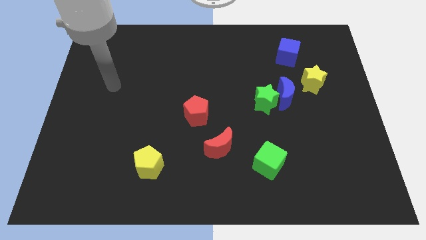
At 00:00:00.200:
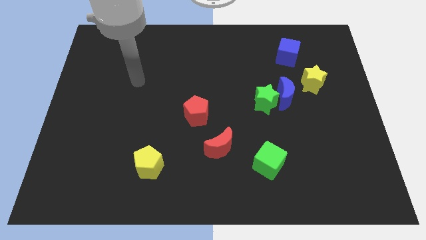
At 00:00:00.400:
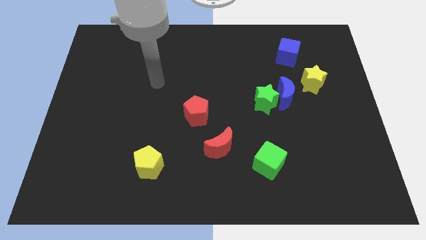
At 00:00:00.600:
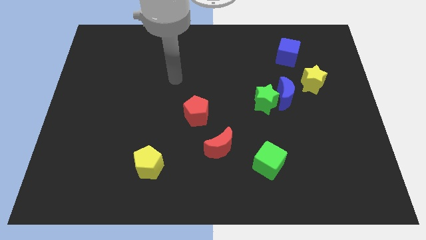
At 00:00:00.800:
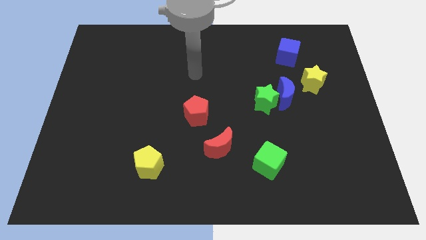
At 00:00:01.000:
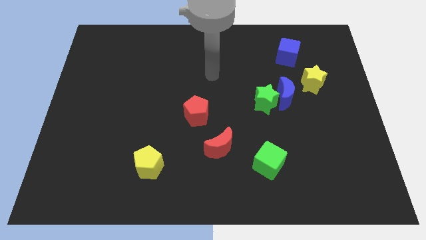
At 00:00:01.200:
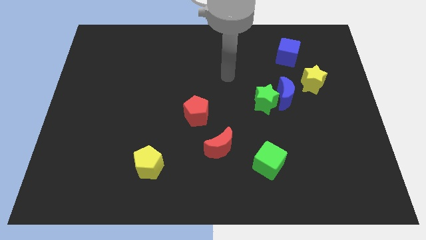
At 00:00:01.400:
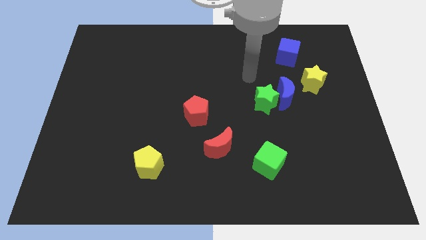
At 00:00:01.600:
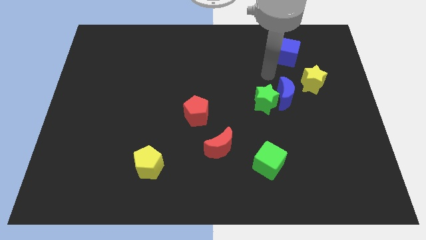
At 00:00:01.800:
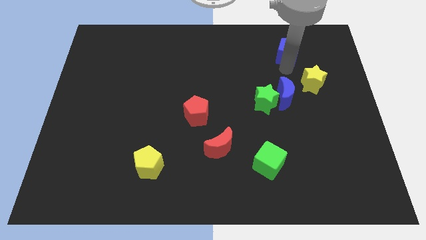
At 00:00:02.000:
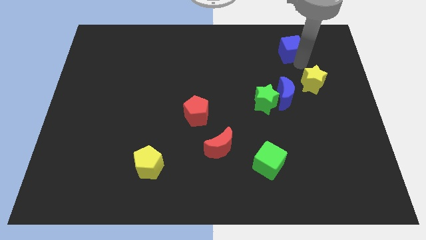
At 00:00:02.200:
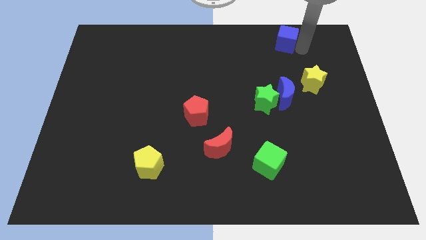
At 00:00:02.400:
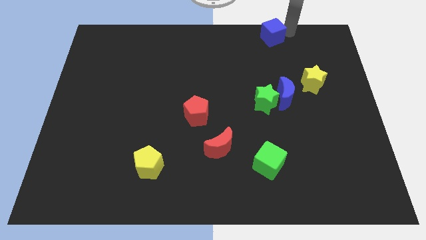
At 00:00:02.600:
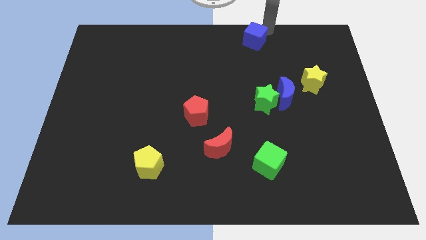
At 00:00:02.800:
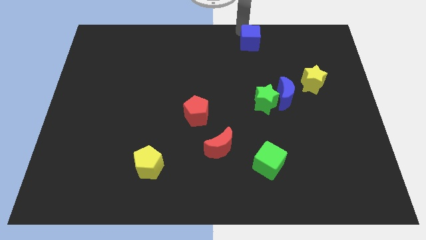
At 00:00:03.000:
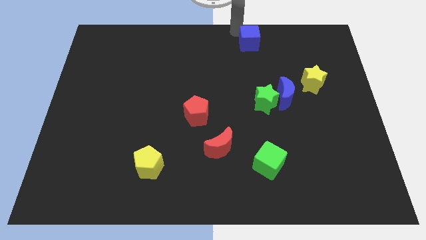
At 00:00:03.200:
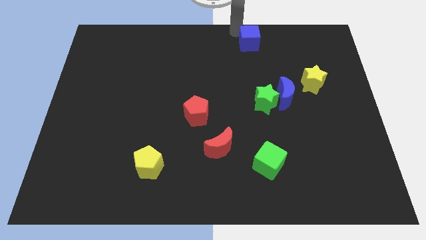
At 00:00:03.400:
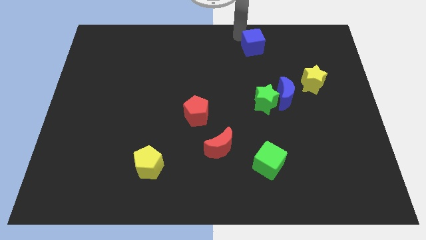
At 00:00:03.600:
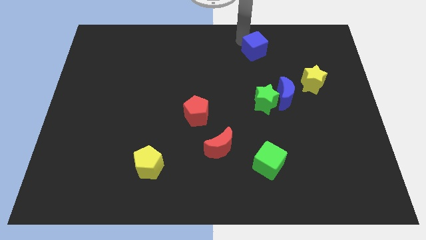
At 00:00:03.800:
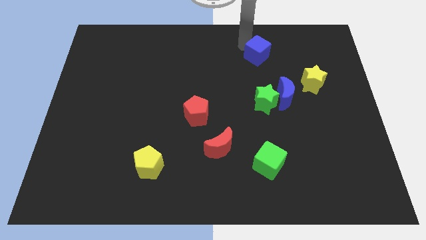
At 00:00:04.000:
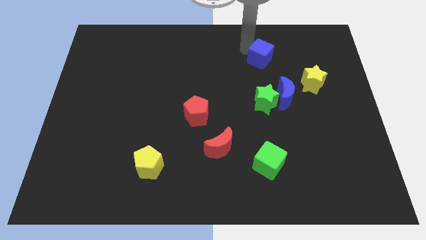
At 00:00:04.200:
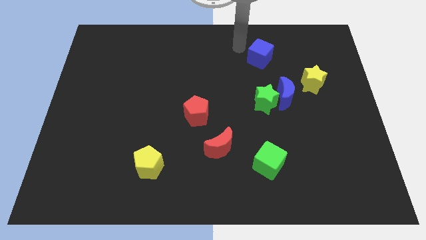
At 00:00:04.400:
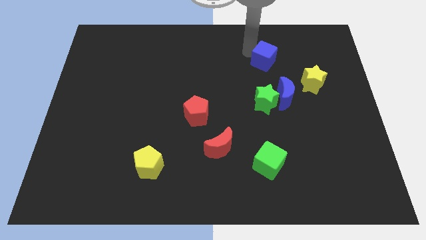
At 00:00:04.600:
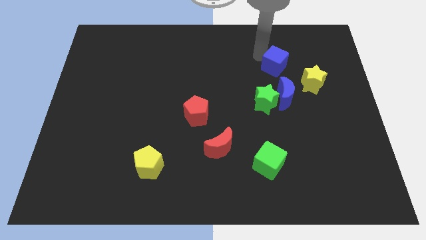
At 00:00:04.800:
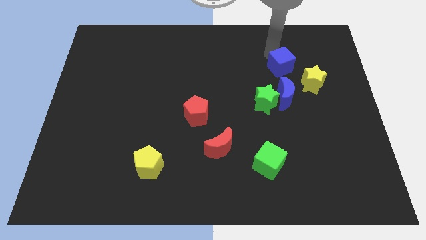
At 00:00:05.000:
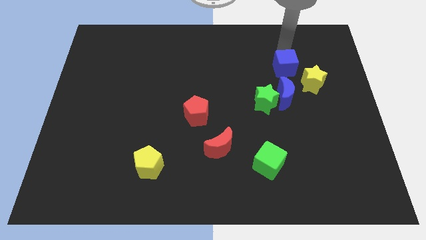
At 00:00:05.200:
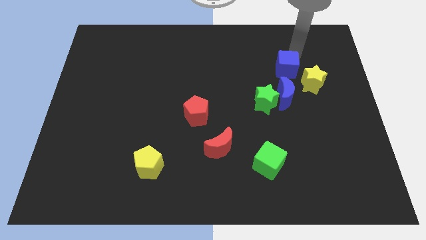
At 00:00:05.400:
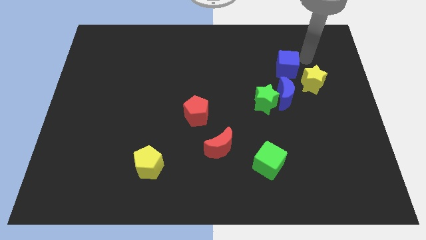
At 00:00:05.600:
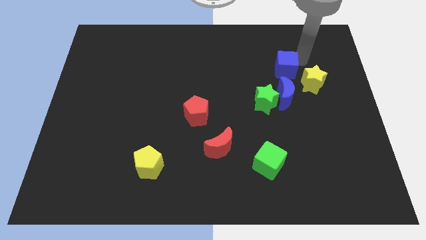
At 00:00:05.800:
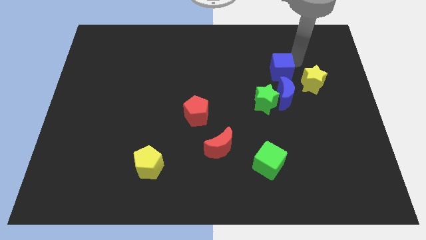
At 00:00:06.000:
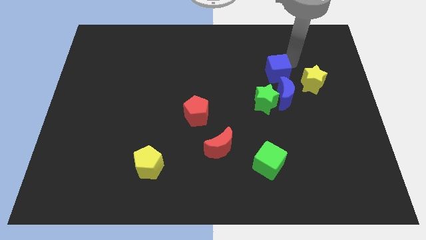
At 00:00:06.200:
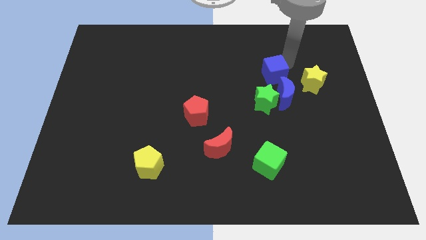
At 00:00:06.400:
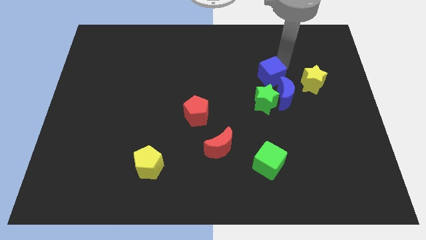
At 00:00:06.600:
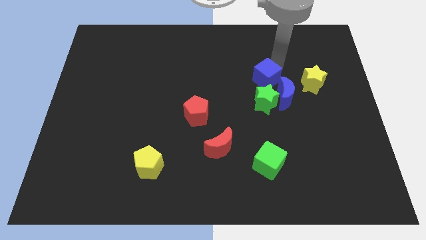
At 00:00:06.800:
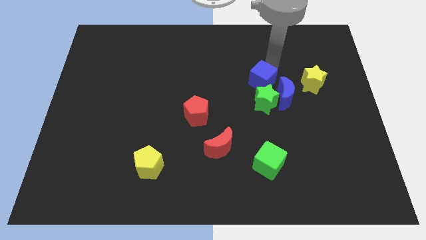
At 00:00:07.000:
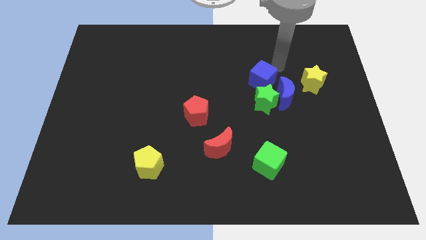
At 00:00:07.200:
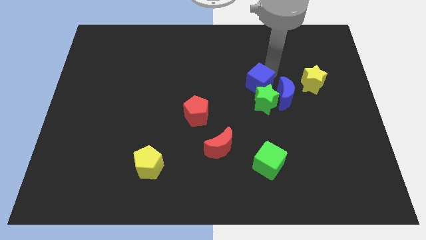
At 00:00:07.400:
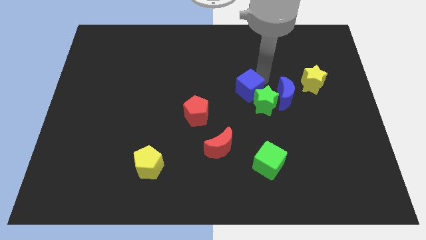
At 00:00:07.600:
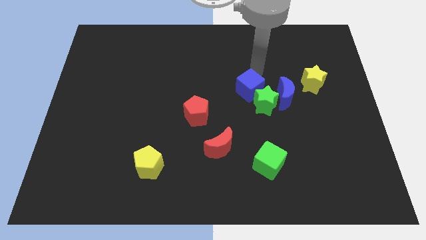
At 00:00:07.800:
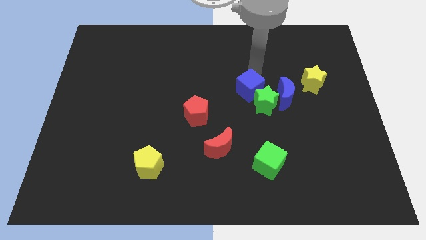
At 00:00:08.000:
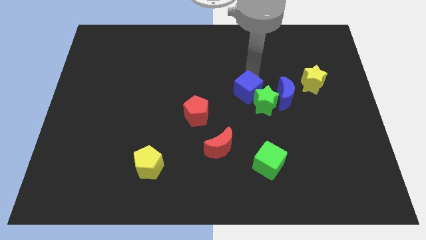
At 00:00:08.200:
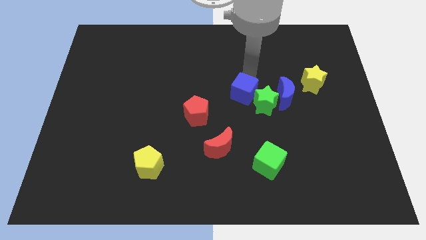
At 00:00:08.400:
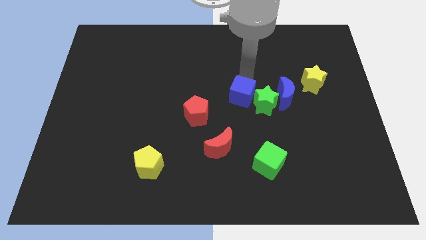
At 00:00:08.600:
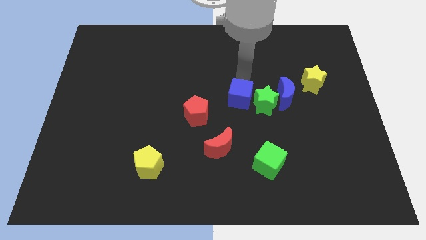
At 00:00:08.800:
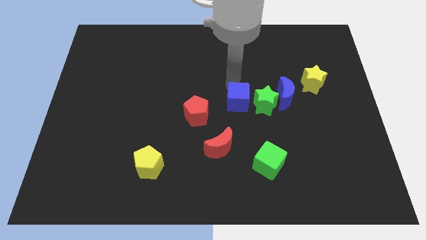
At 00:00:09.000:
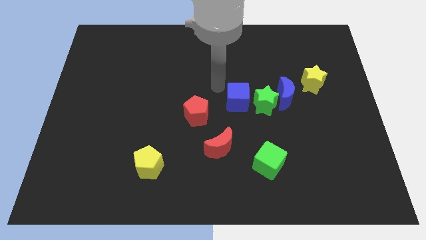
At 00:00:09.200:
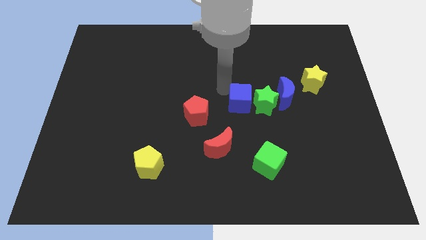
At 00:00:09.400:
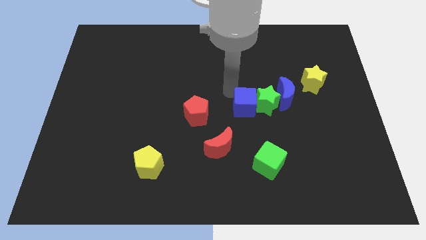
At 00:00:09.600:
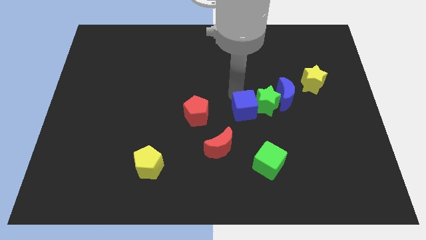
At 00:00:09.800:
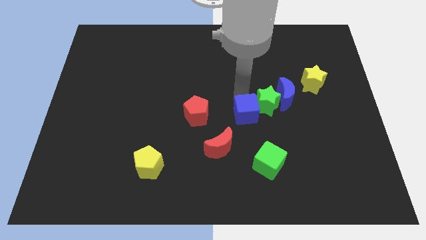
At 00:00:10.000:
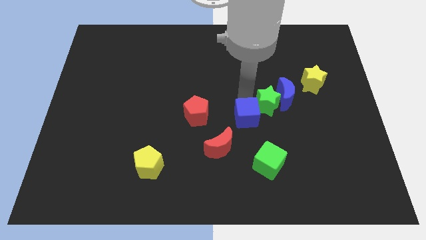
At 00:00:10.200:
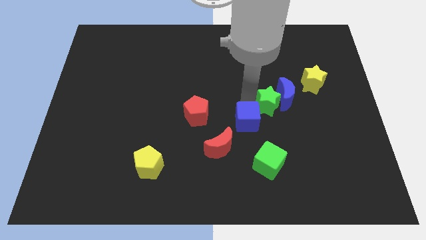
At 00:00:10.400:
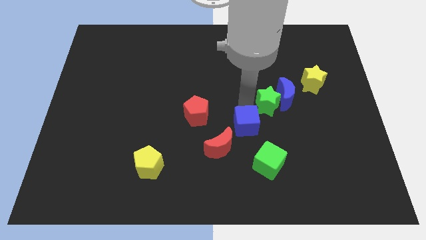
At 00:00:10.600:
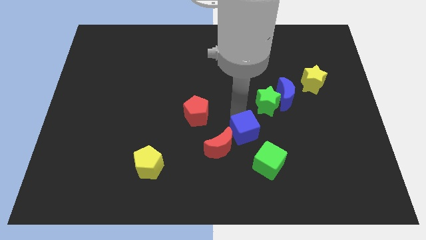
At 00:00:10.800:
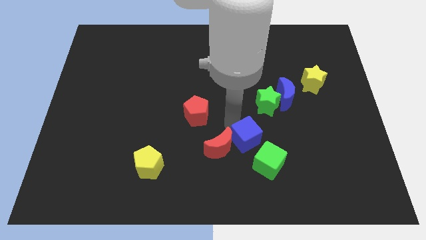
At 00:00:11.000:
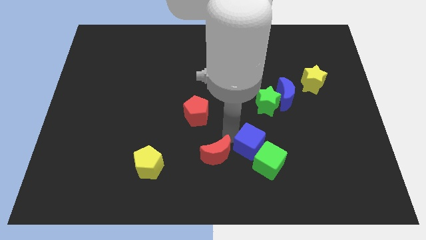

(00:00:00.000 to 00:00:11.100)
push the blue cube down

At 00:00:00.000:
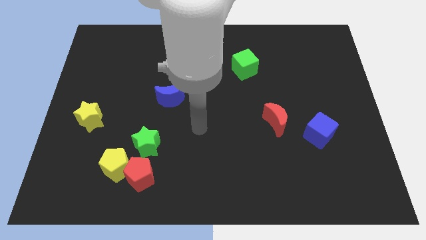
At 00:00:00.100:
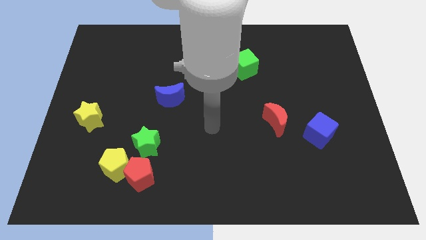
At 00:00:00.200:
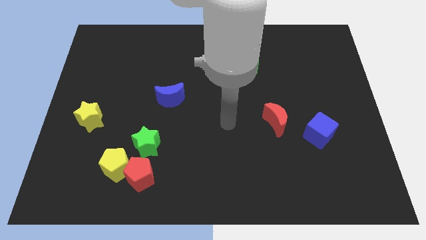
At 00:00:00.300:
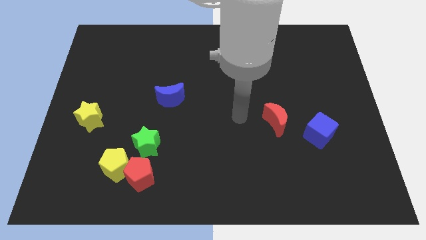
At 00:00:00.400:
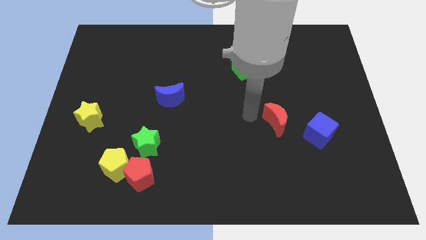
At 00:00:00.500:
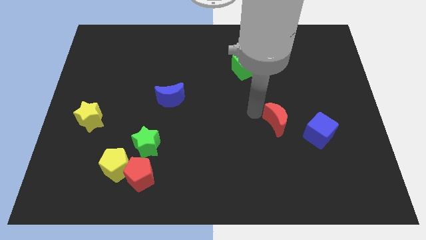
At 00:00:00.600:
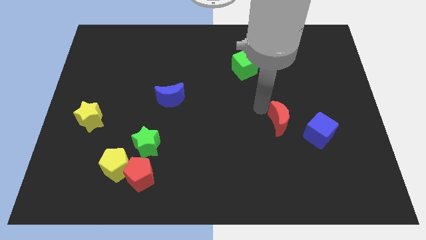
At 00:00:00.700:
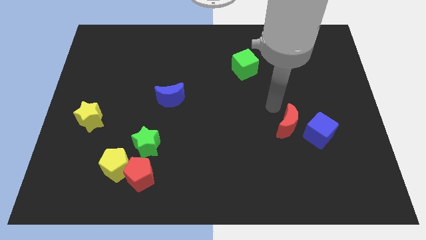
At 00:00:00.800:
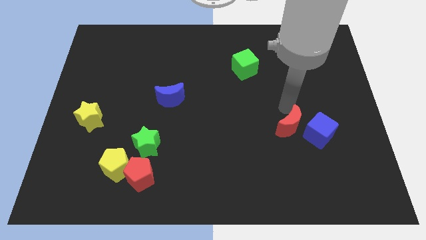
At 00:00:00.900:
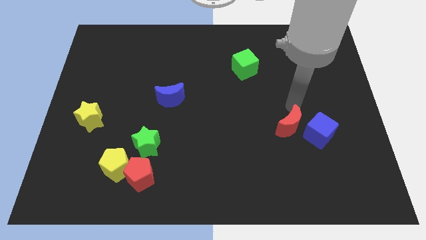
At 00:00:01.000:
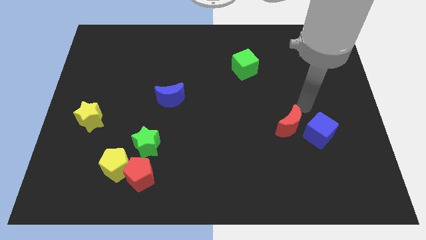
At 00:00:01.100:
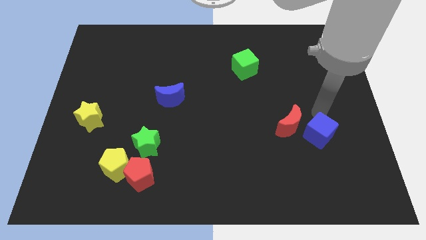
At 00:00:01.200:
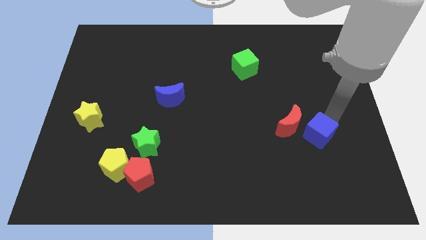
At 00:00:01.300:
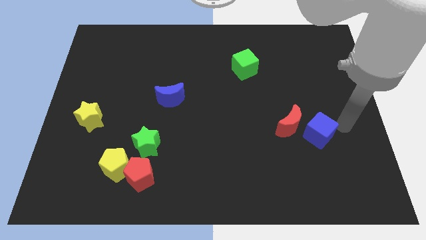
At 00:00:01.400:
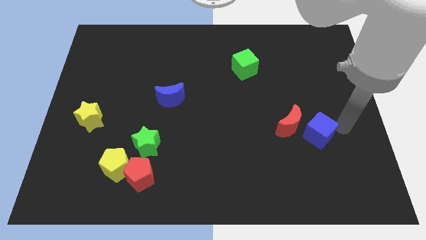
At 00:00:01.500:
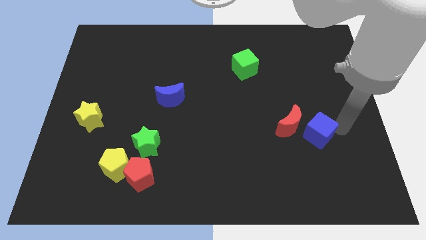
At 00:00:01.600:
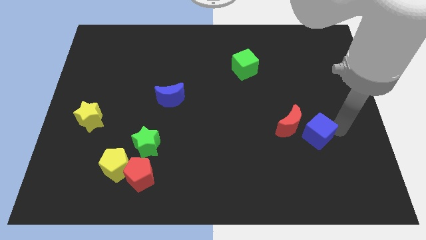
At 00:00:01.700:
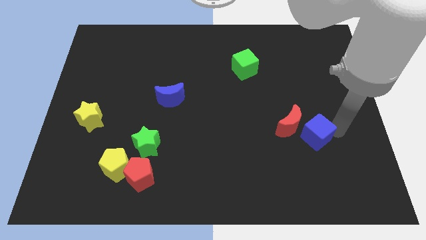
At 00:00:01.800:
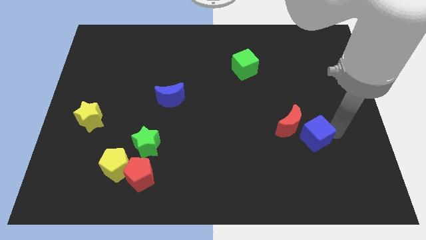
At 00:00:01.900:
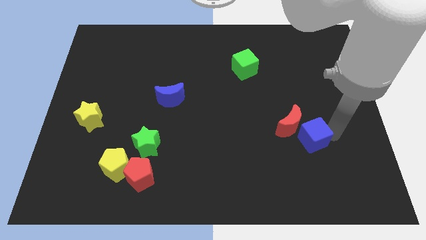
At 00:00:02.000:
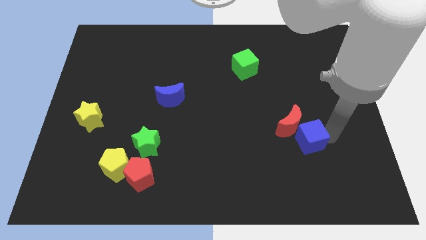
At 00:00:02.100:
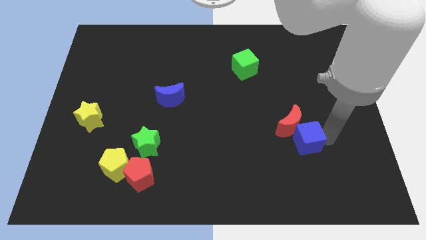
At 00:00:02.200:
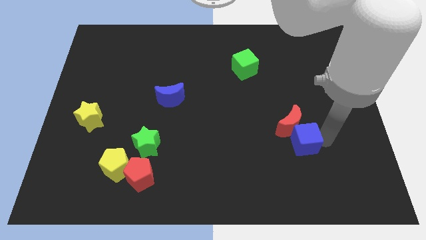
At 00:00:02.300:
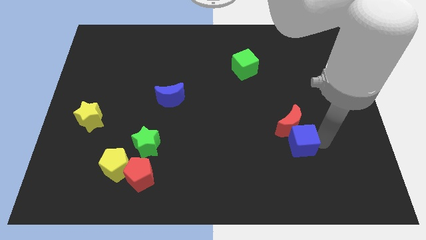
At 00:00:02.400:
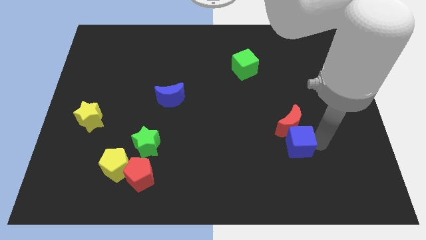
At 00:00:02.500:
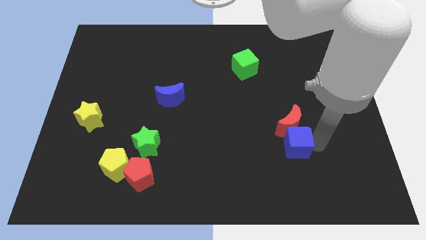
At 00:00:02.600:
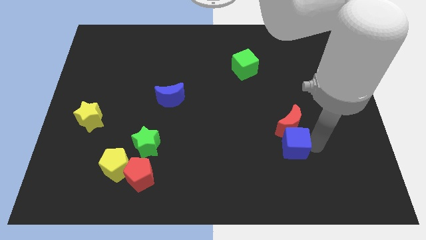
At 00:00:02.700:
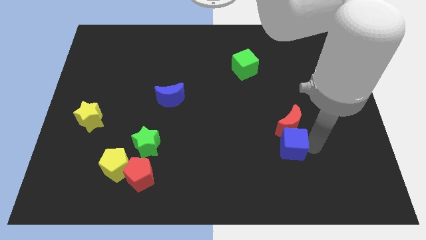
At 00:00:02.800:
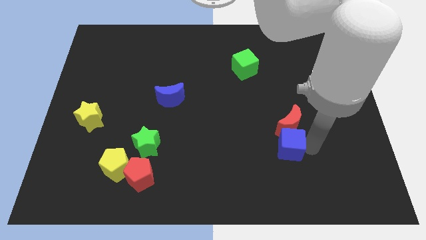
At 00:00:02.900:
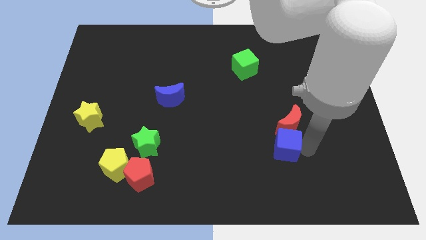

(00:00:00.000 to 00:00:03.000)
slightly slide the blue cube left
